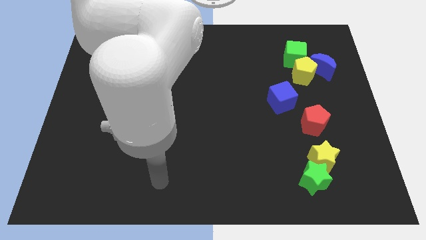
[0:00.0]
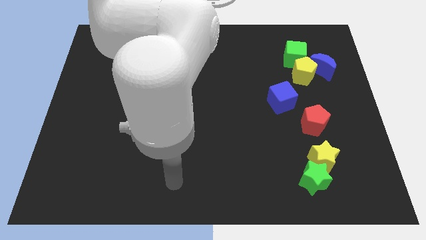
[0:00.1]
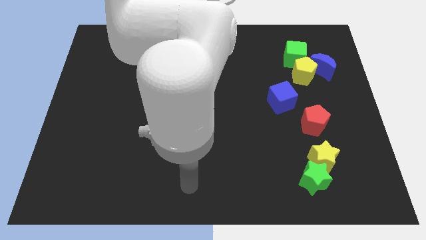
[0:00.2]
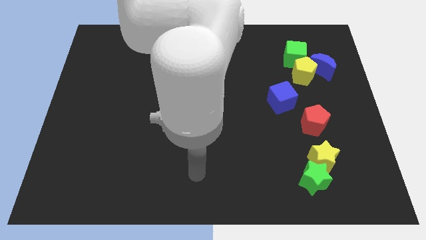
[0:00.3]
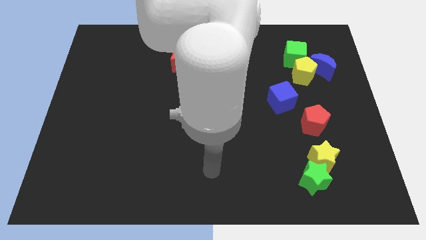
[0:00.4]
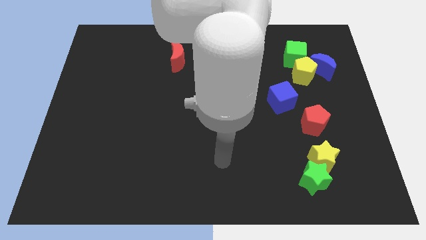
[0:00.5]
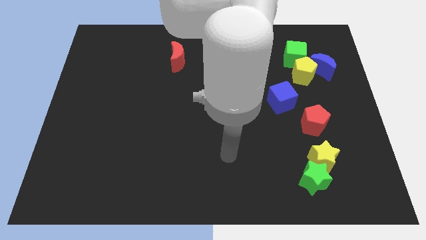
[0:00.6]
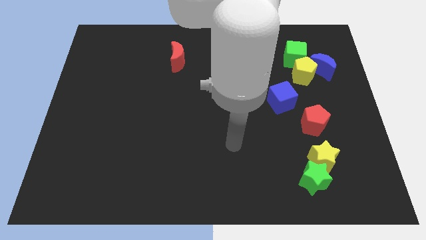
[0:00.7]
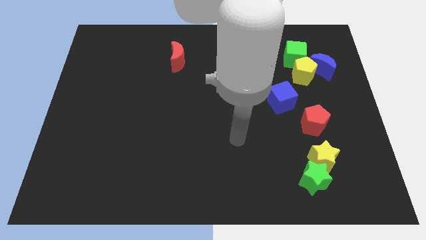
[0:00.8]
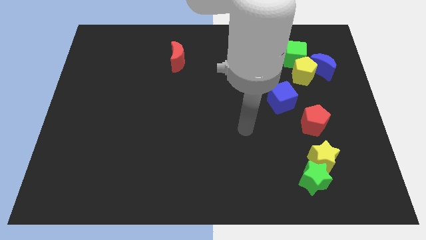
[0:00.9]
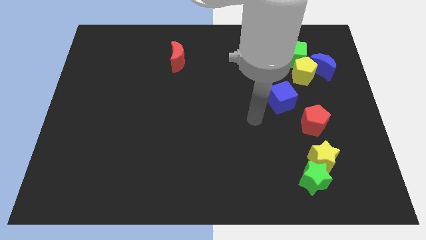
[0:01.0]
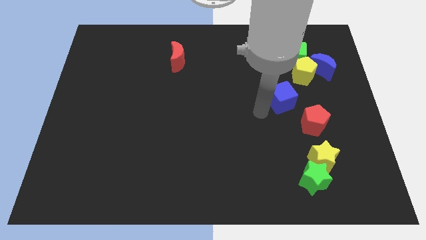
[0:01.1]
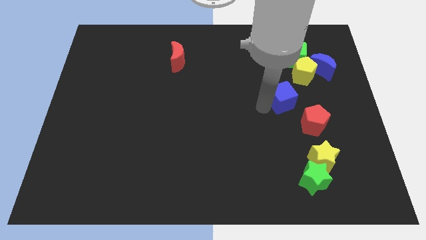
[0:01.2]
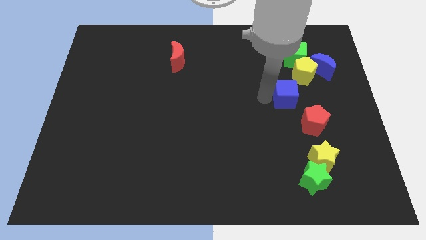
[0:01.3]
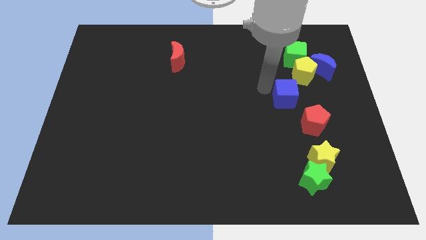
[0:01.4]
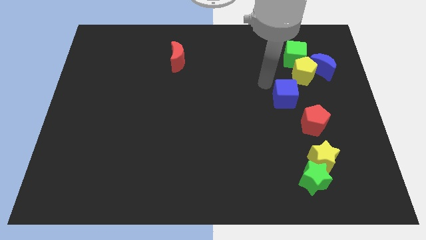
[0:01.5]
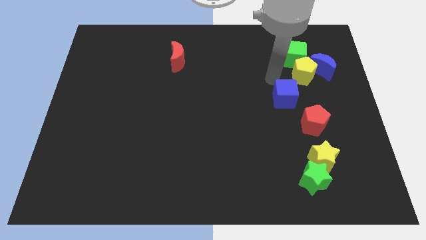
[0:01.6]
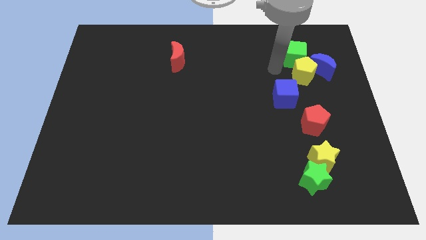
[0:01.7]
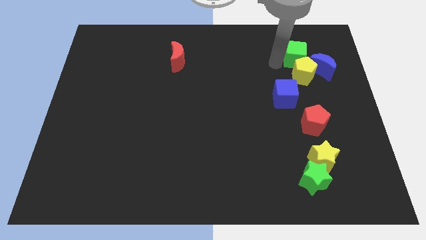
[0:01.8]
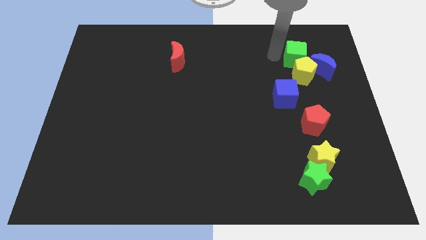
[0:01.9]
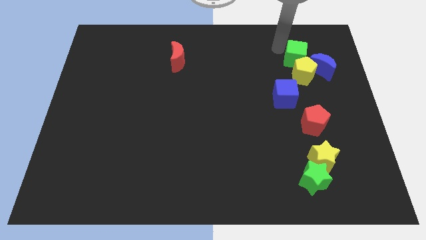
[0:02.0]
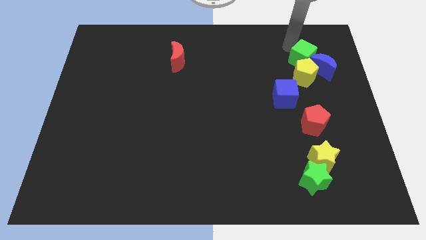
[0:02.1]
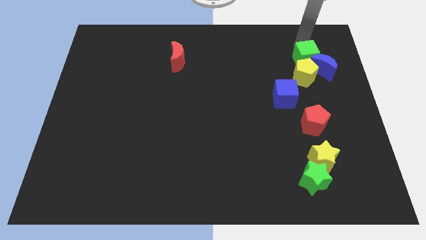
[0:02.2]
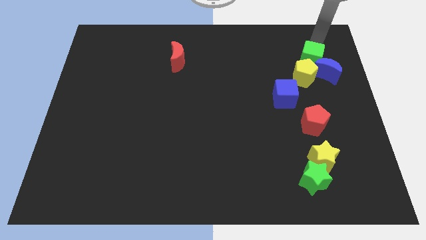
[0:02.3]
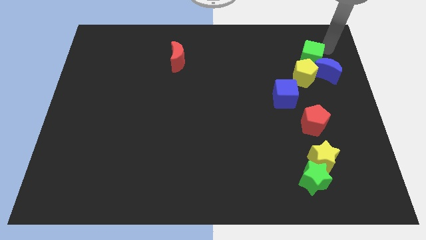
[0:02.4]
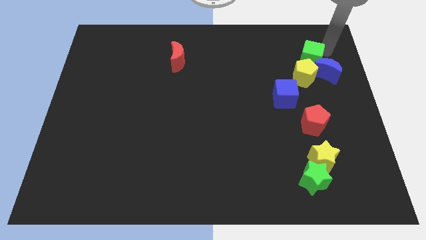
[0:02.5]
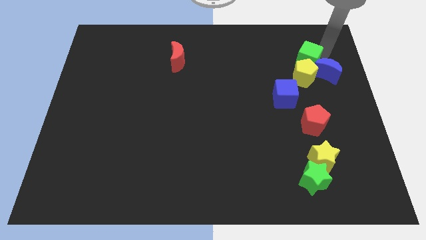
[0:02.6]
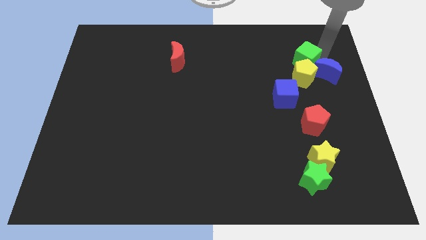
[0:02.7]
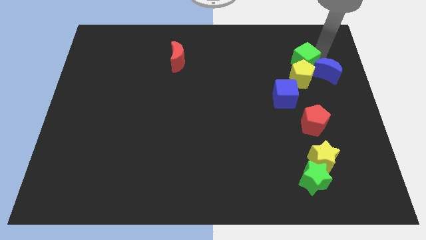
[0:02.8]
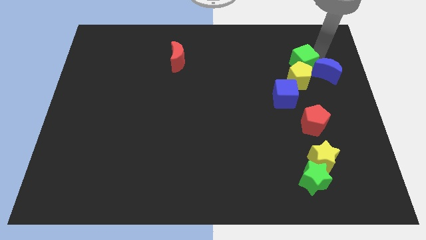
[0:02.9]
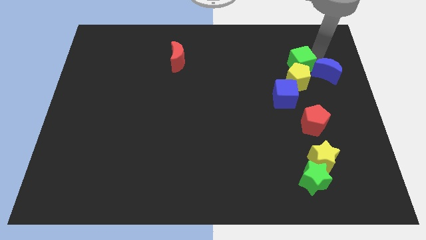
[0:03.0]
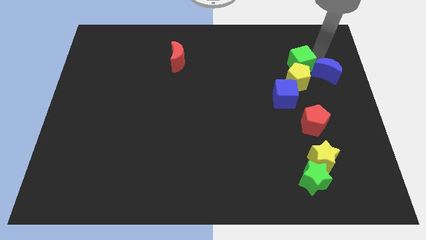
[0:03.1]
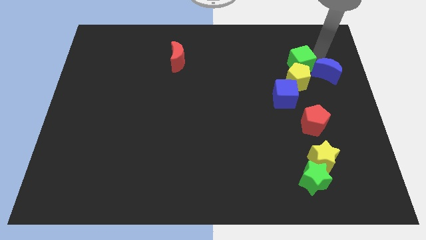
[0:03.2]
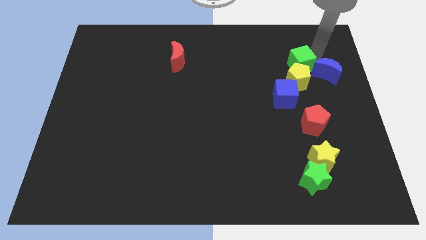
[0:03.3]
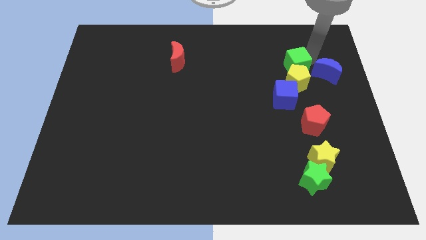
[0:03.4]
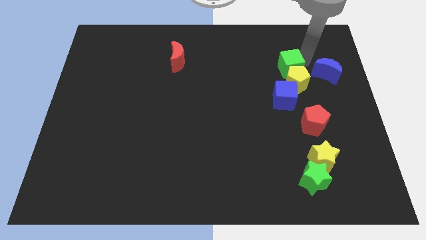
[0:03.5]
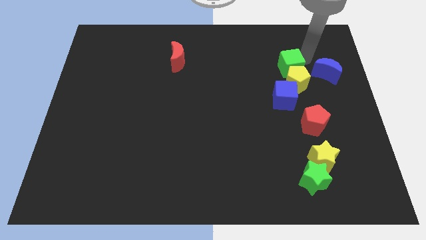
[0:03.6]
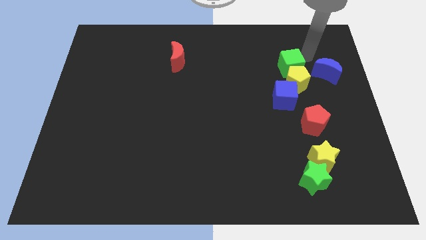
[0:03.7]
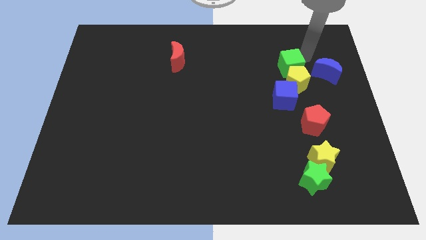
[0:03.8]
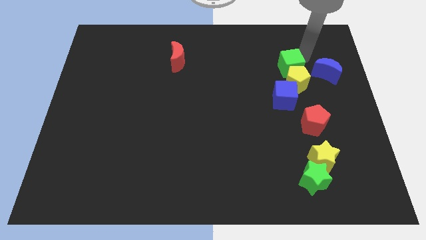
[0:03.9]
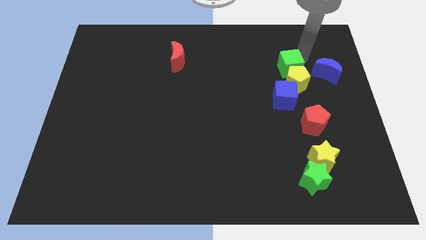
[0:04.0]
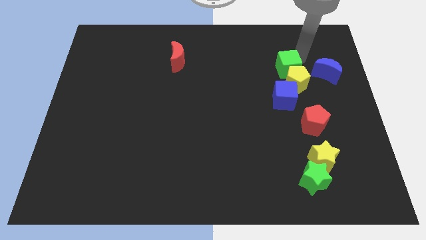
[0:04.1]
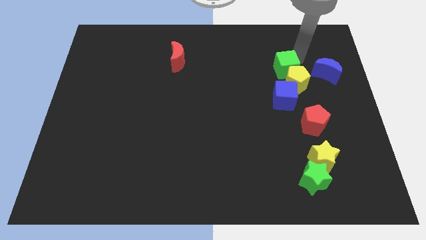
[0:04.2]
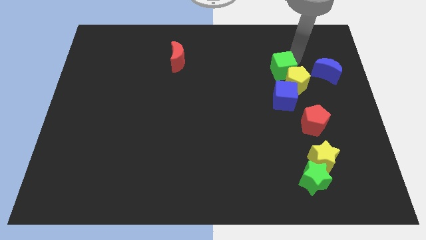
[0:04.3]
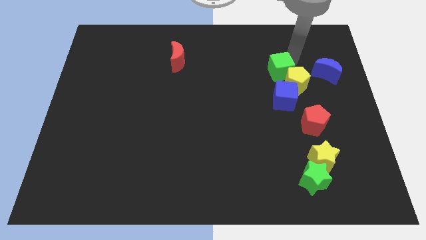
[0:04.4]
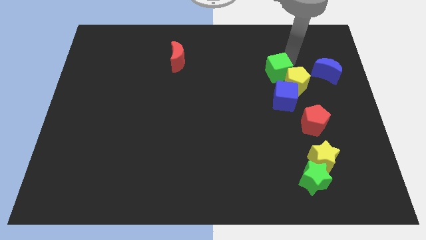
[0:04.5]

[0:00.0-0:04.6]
move the green cube diagonally downwards and to the left slightly

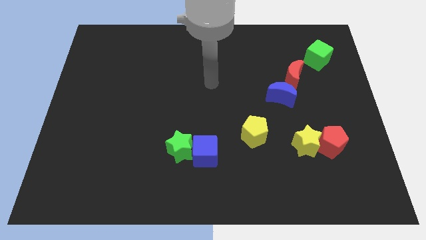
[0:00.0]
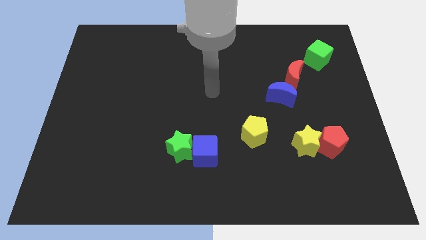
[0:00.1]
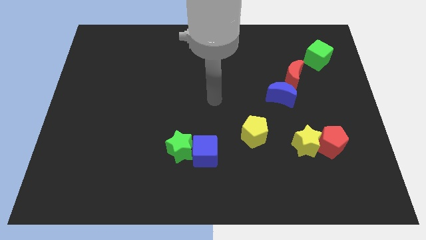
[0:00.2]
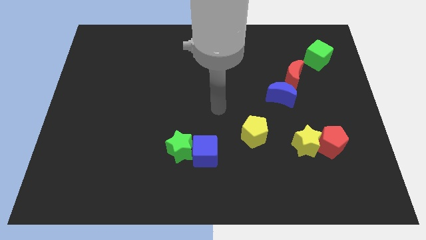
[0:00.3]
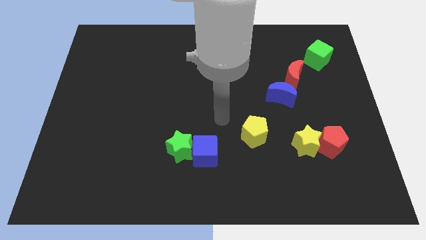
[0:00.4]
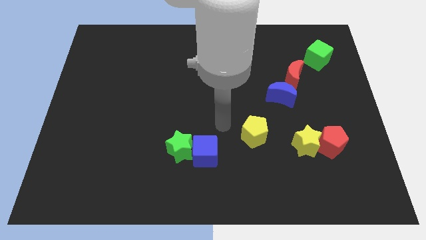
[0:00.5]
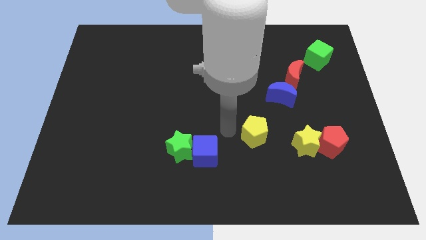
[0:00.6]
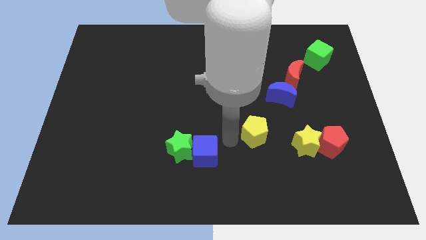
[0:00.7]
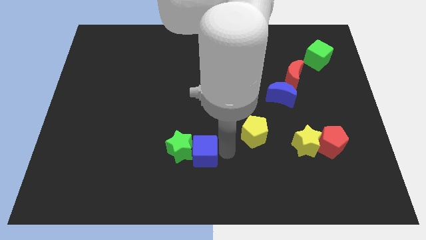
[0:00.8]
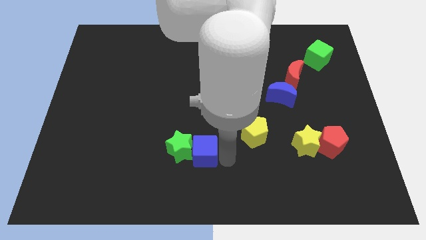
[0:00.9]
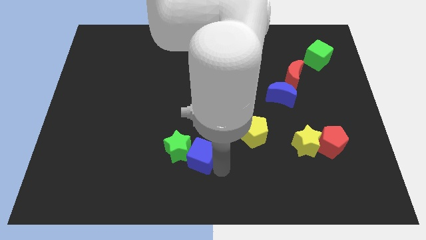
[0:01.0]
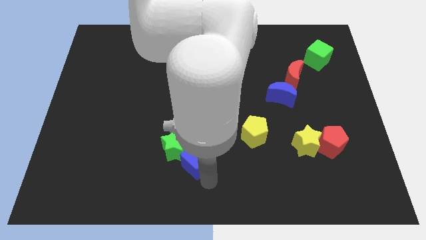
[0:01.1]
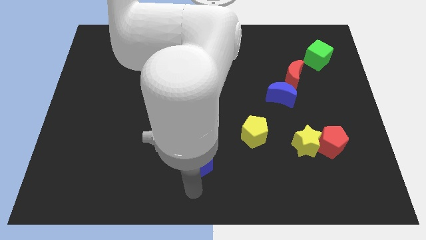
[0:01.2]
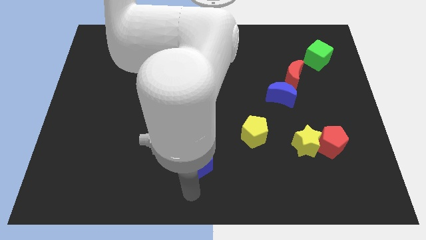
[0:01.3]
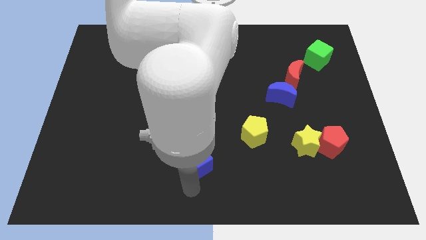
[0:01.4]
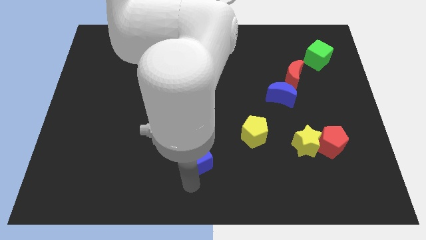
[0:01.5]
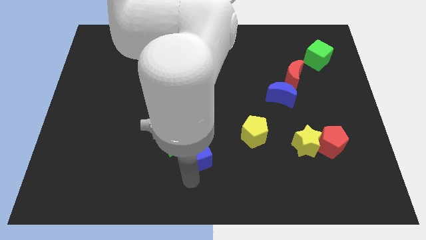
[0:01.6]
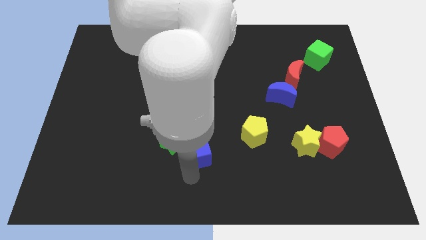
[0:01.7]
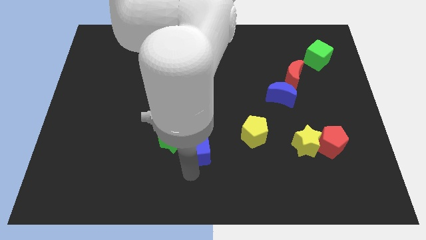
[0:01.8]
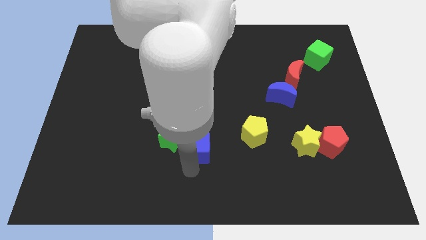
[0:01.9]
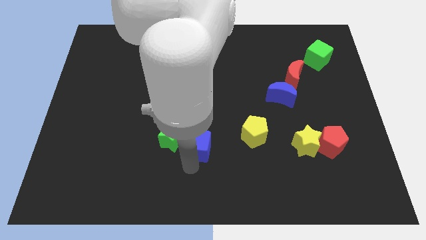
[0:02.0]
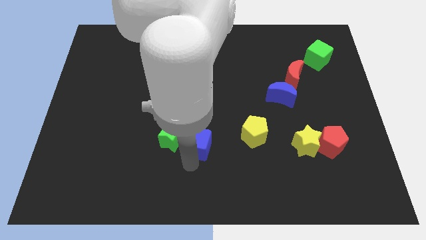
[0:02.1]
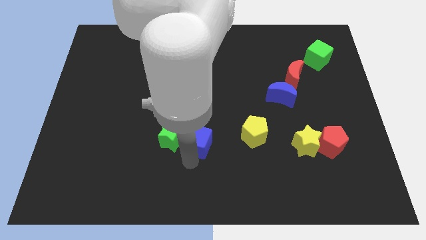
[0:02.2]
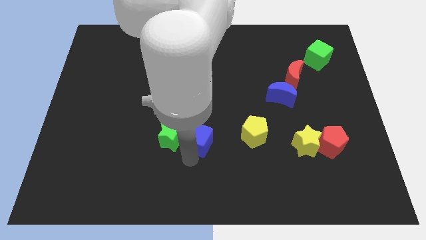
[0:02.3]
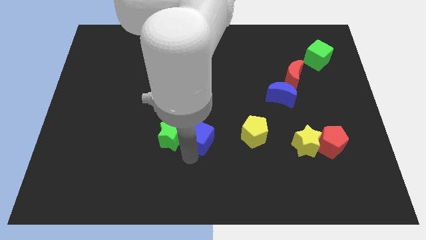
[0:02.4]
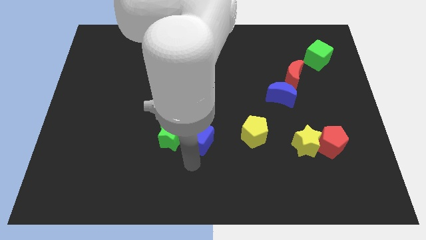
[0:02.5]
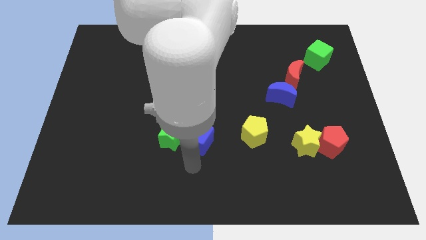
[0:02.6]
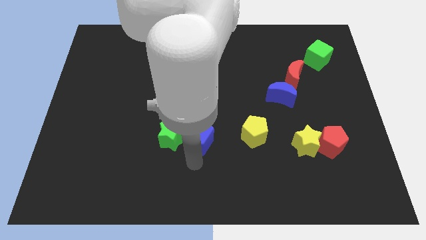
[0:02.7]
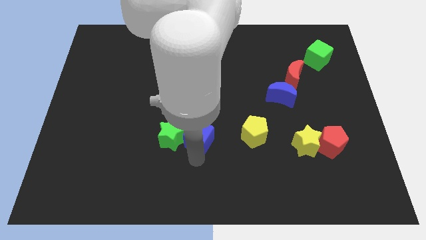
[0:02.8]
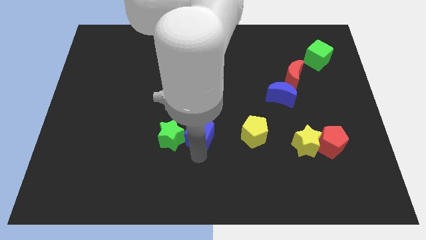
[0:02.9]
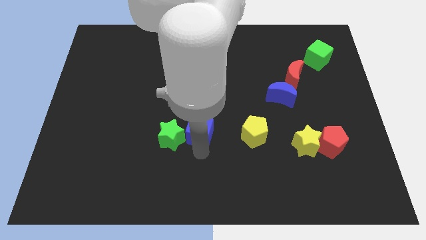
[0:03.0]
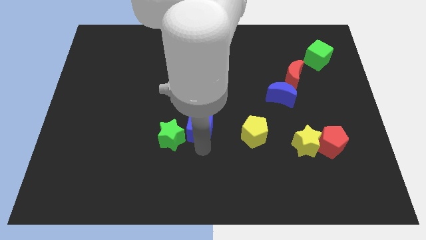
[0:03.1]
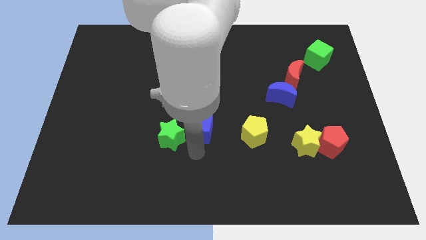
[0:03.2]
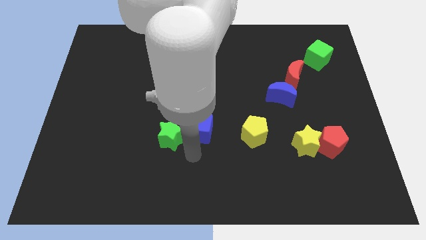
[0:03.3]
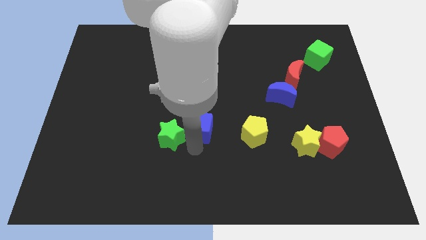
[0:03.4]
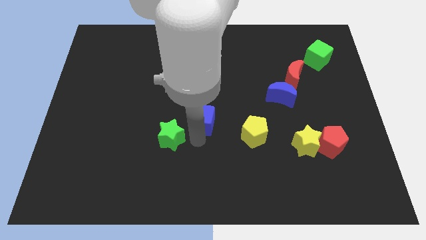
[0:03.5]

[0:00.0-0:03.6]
push the blue cube slightly up
